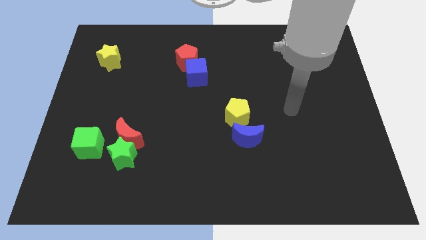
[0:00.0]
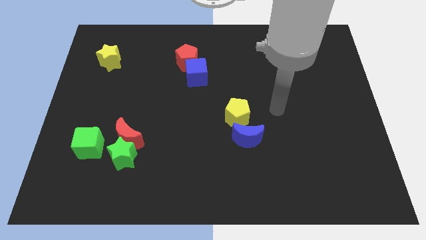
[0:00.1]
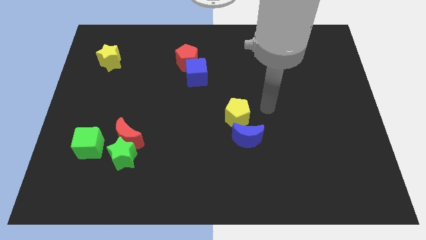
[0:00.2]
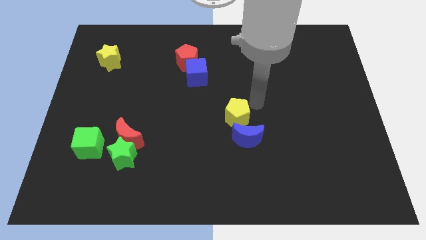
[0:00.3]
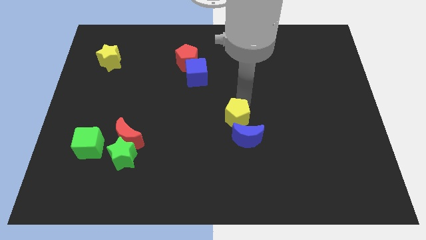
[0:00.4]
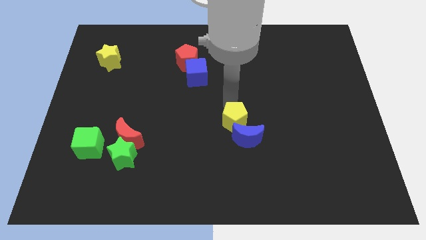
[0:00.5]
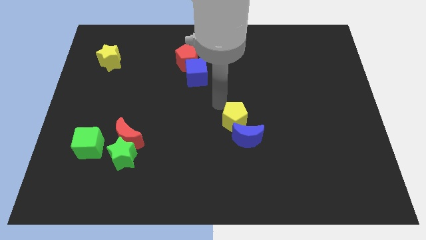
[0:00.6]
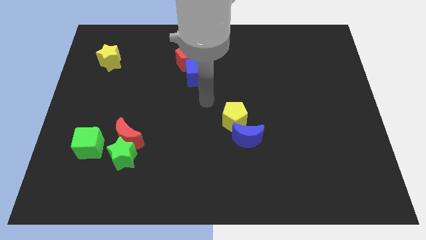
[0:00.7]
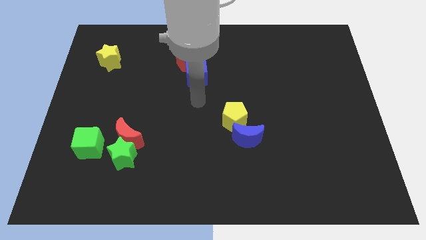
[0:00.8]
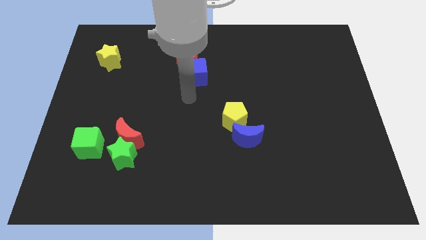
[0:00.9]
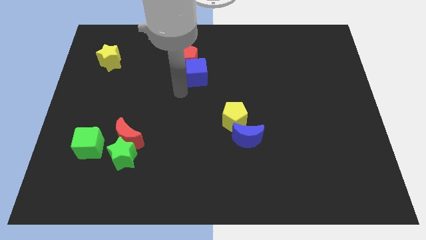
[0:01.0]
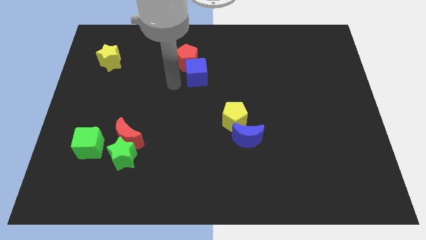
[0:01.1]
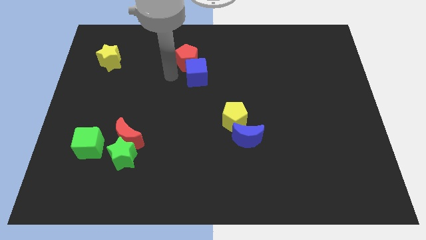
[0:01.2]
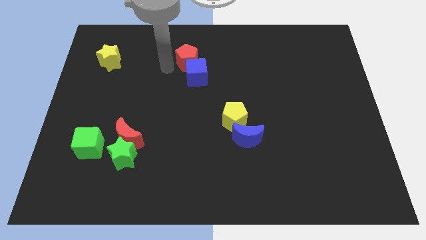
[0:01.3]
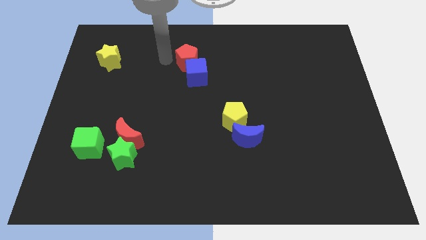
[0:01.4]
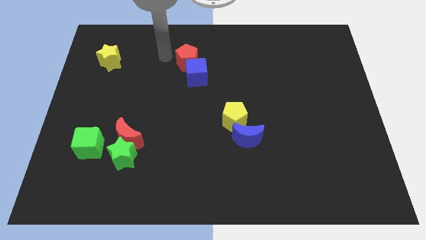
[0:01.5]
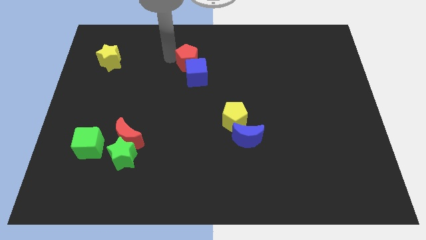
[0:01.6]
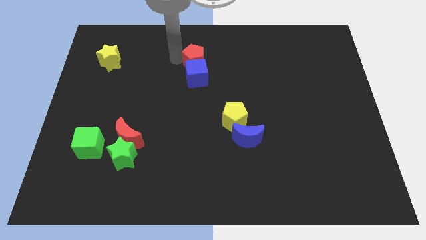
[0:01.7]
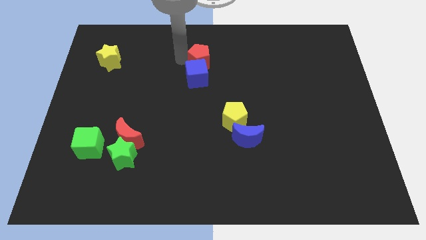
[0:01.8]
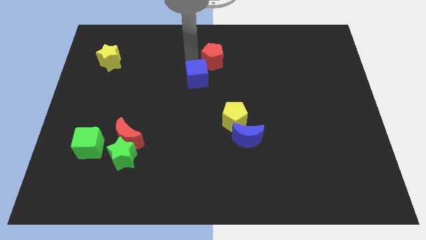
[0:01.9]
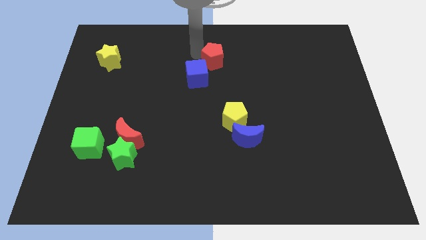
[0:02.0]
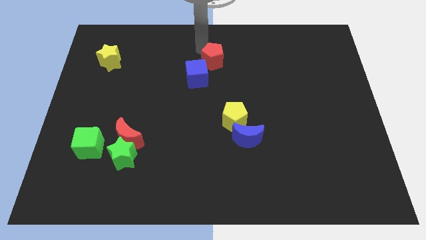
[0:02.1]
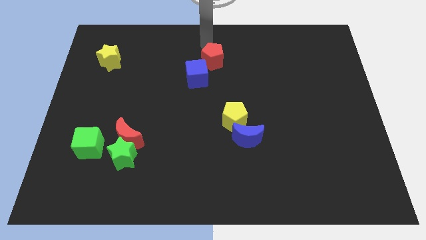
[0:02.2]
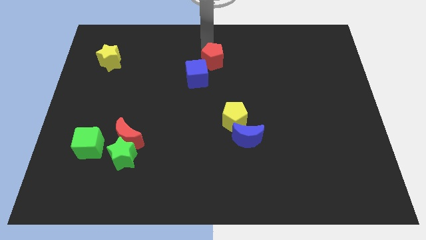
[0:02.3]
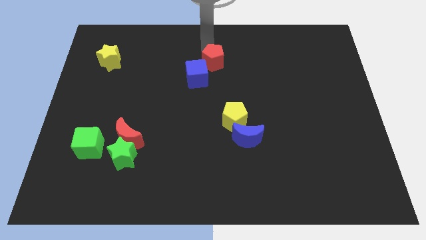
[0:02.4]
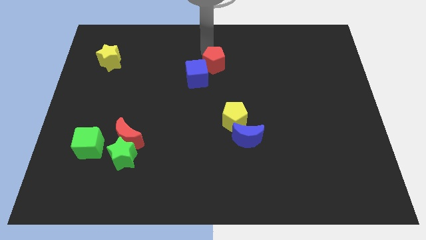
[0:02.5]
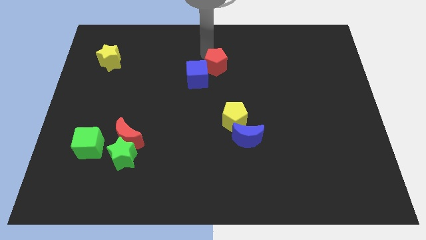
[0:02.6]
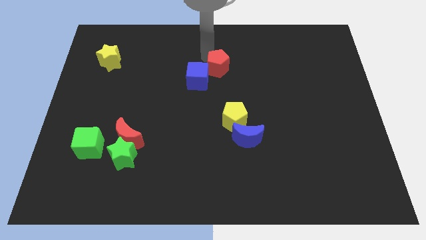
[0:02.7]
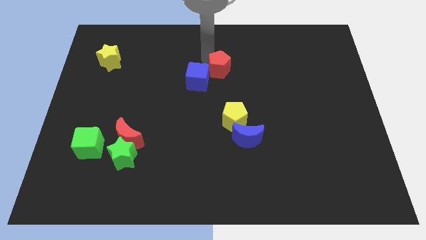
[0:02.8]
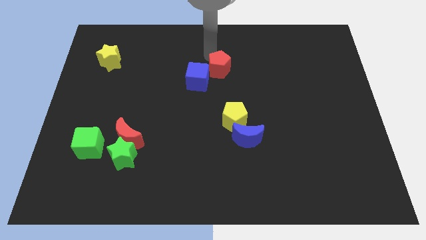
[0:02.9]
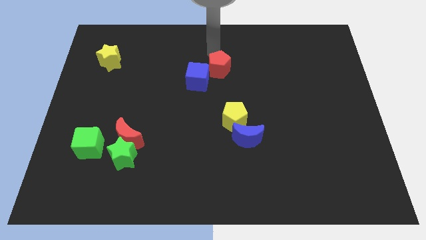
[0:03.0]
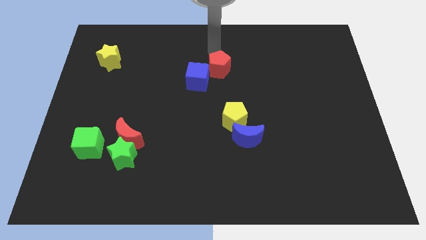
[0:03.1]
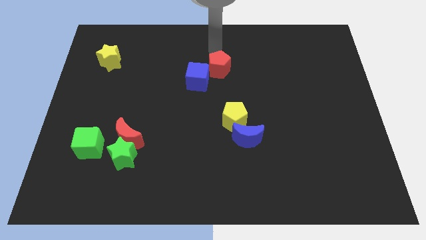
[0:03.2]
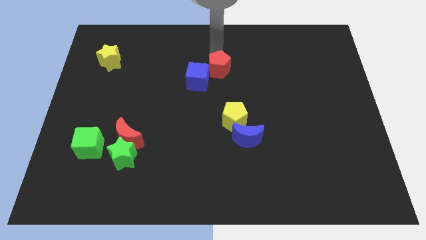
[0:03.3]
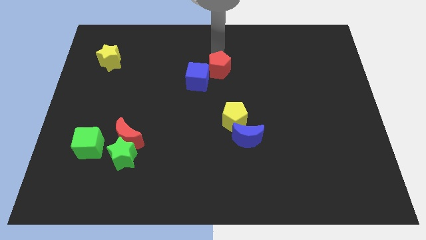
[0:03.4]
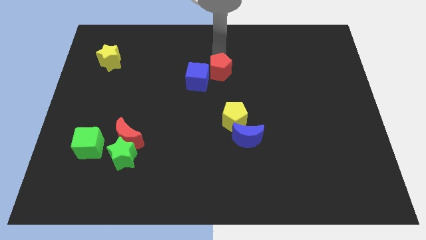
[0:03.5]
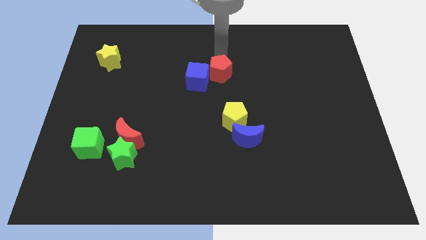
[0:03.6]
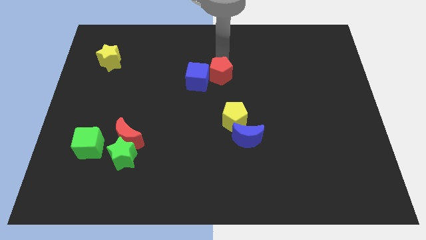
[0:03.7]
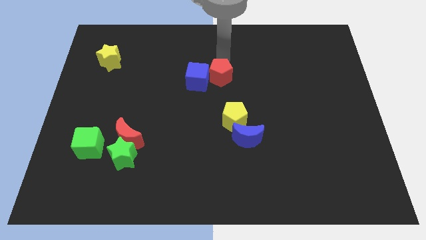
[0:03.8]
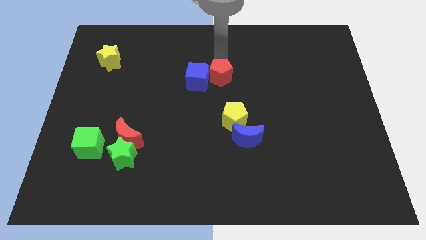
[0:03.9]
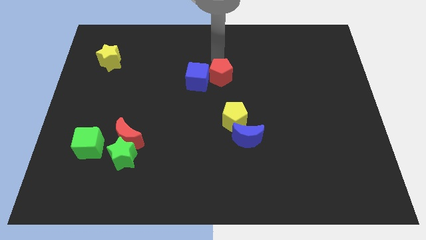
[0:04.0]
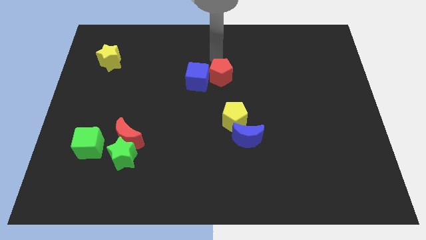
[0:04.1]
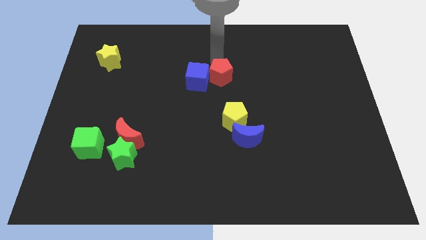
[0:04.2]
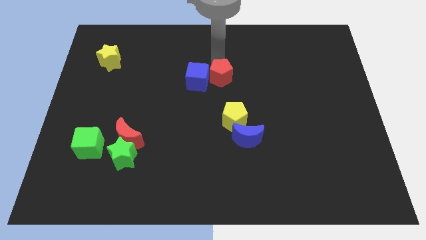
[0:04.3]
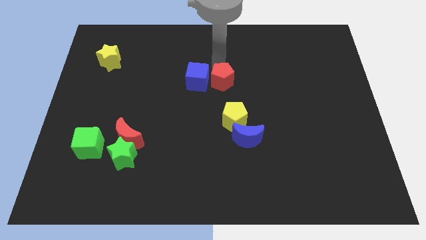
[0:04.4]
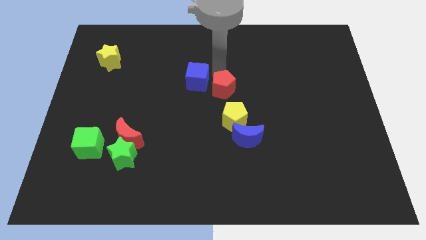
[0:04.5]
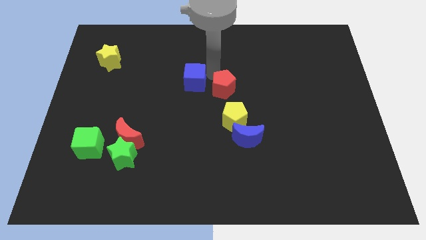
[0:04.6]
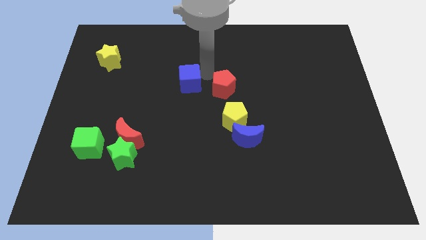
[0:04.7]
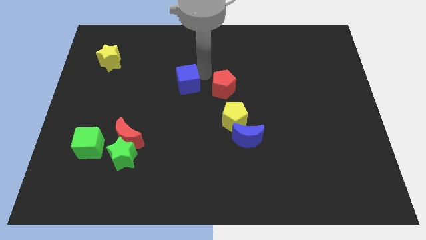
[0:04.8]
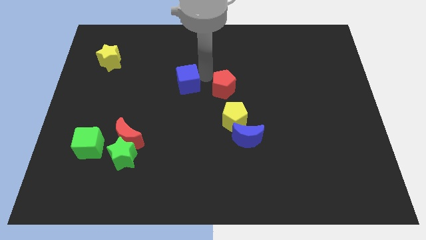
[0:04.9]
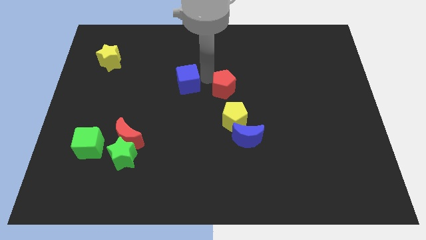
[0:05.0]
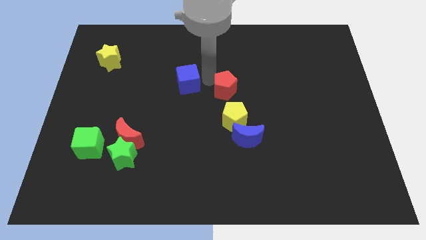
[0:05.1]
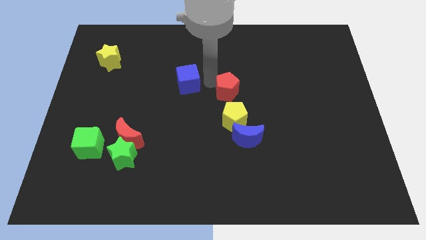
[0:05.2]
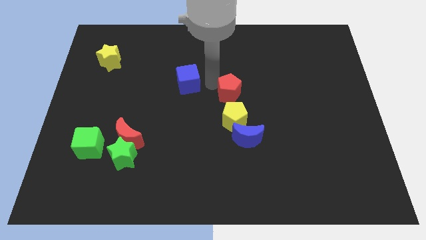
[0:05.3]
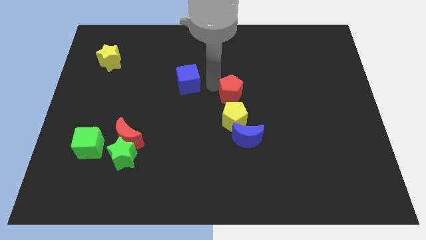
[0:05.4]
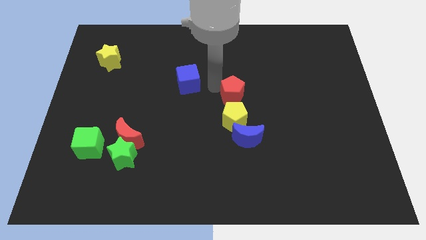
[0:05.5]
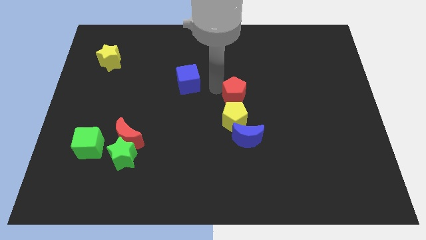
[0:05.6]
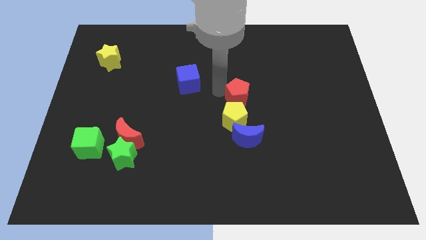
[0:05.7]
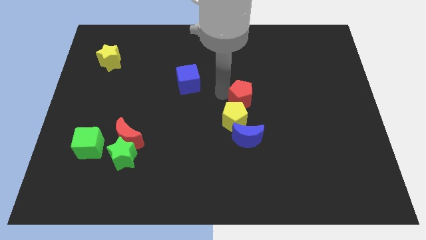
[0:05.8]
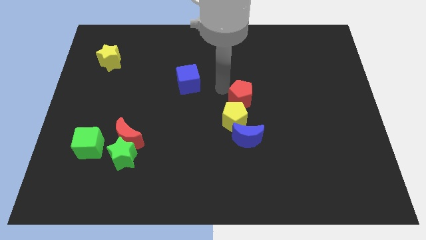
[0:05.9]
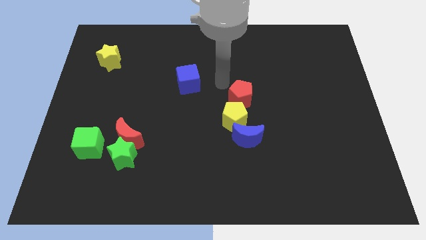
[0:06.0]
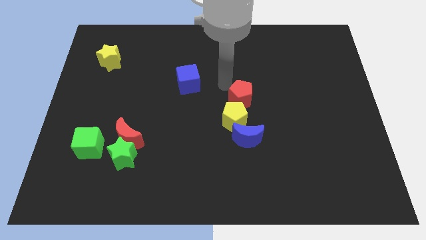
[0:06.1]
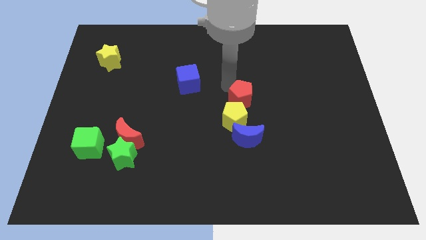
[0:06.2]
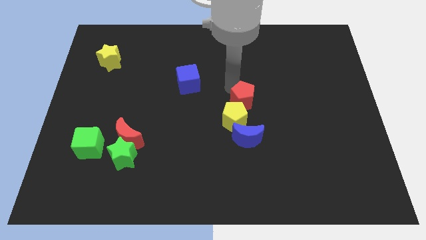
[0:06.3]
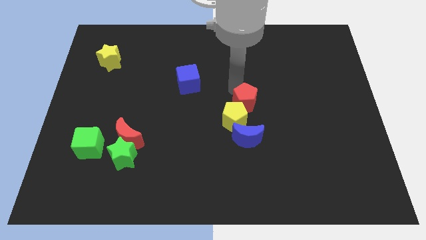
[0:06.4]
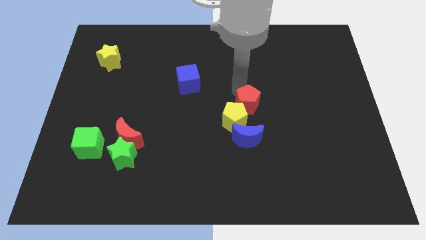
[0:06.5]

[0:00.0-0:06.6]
slide the red pentagon diagonally downwards and right

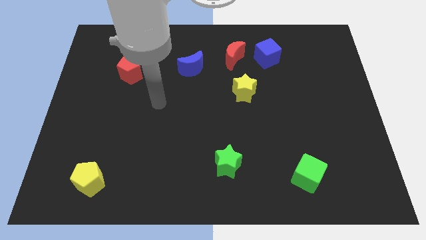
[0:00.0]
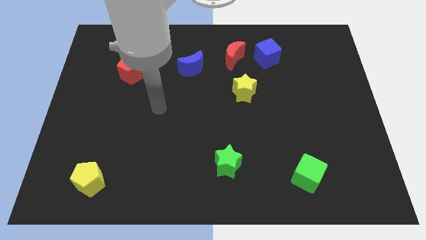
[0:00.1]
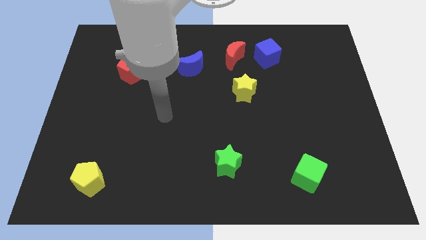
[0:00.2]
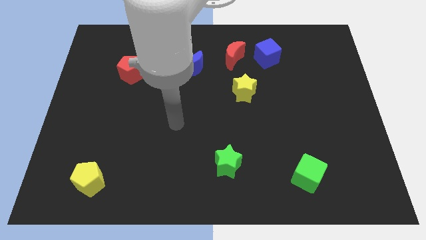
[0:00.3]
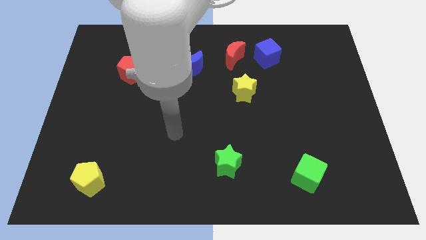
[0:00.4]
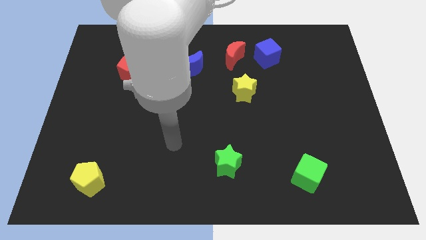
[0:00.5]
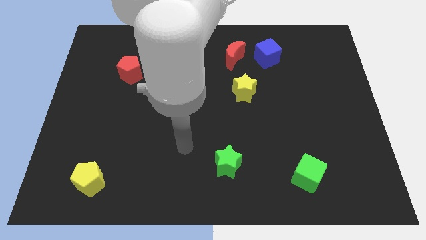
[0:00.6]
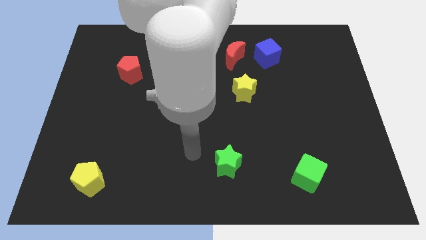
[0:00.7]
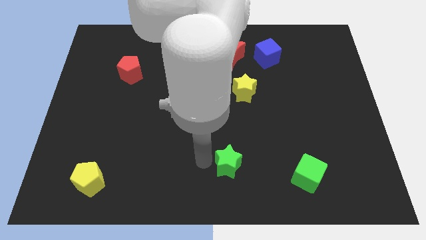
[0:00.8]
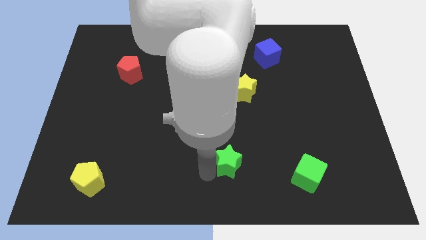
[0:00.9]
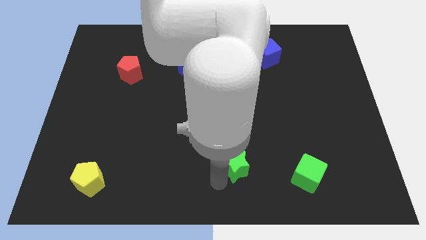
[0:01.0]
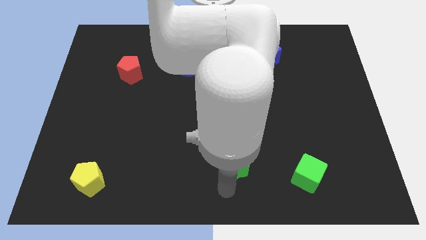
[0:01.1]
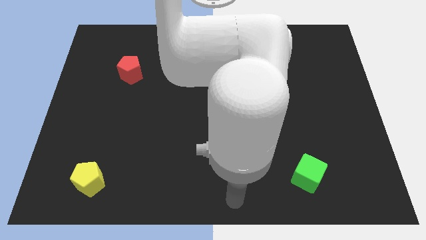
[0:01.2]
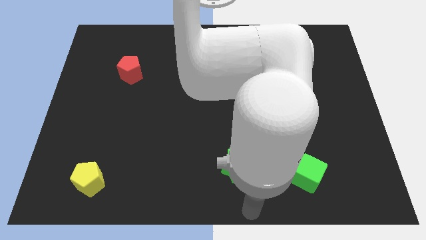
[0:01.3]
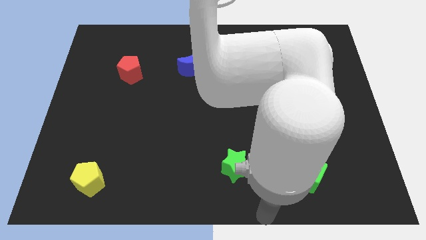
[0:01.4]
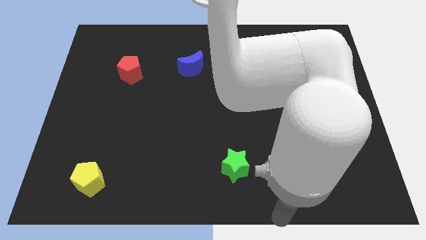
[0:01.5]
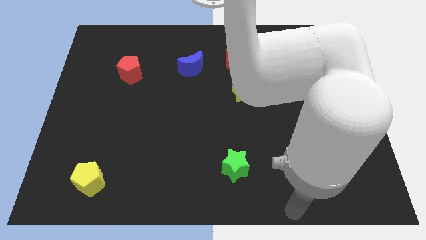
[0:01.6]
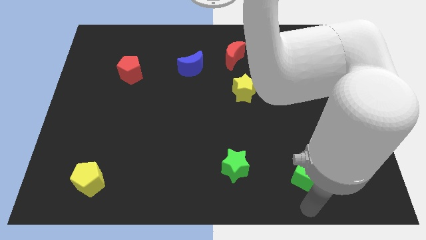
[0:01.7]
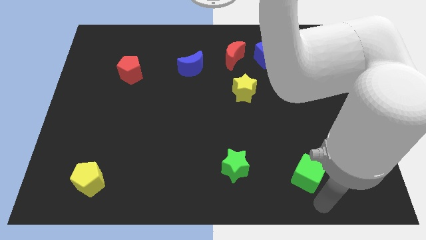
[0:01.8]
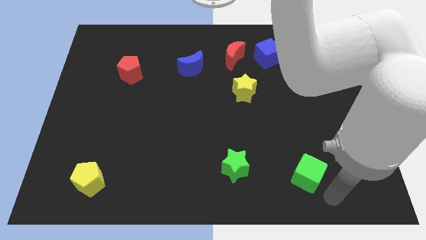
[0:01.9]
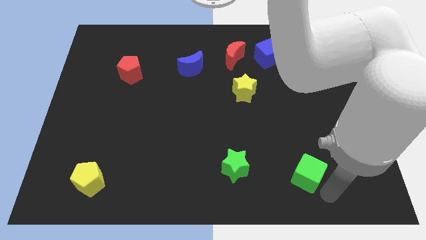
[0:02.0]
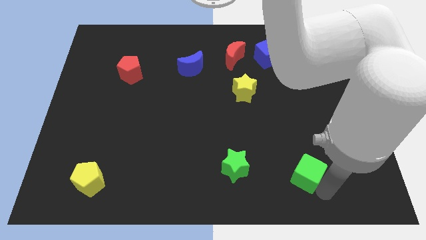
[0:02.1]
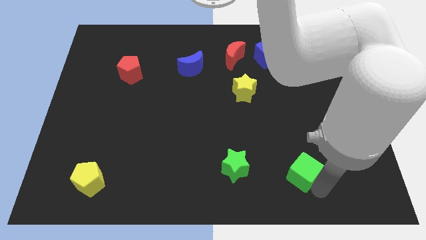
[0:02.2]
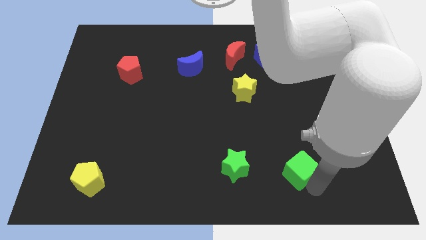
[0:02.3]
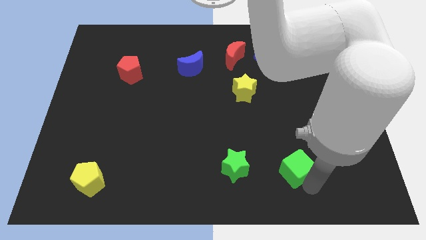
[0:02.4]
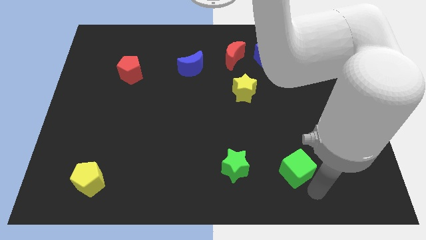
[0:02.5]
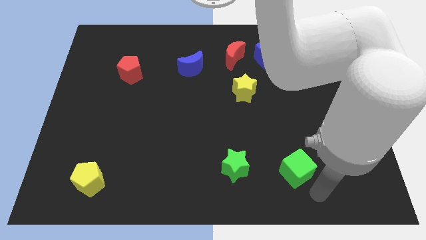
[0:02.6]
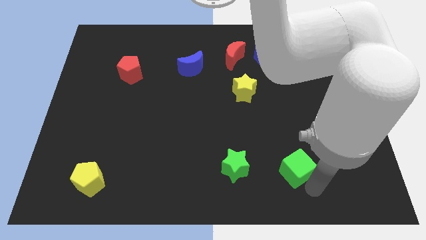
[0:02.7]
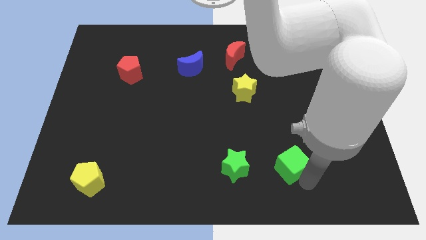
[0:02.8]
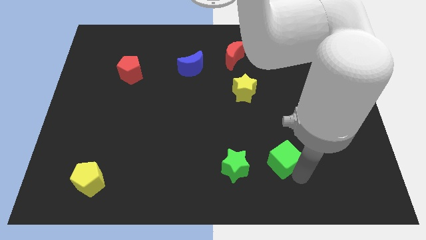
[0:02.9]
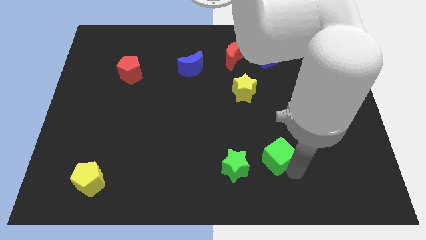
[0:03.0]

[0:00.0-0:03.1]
push the green cube upwards and then to the left a little
